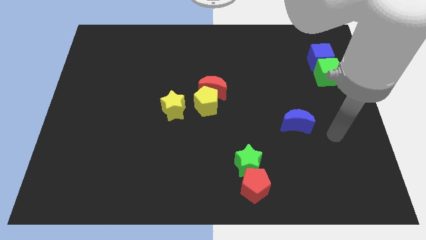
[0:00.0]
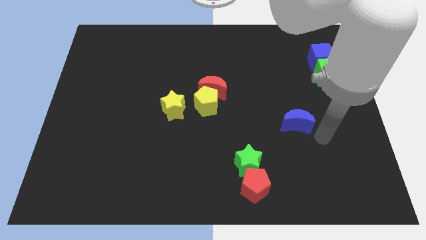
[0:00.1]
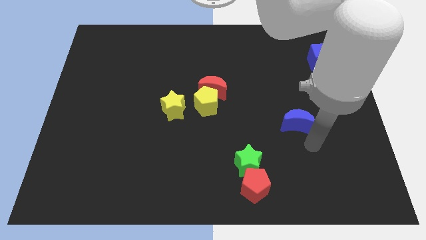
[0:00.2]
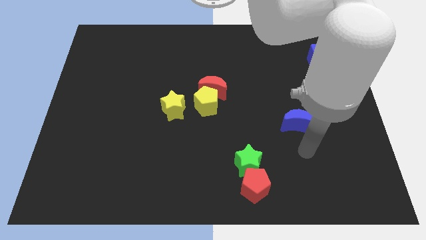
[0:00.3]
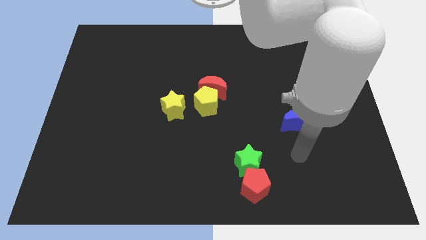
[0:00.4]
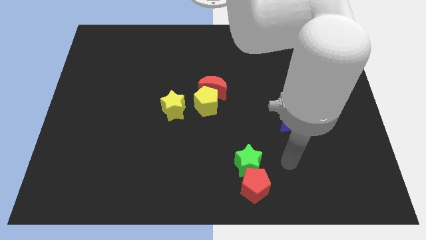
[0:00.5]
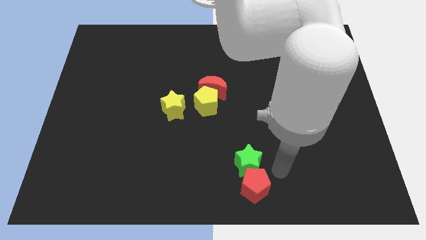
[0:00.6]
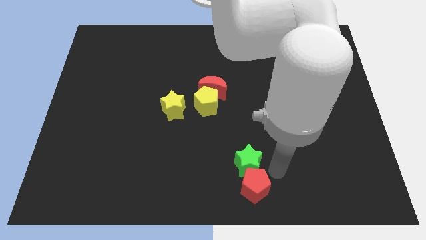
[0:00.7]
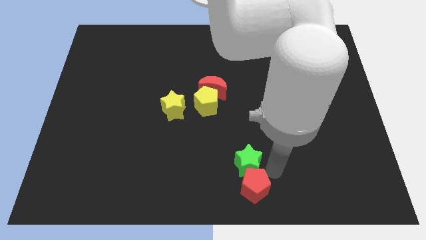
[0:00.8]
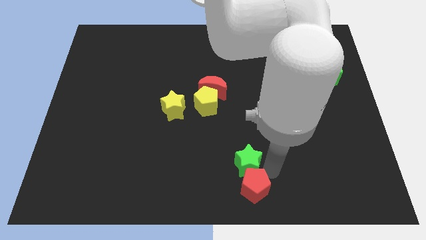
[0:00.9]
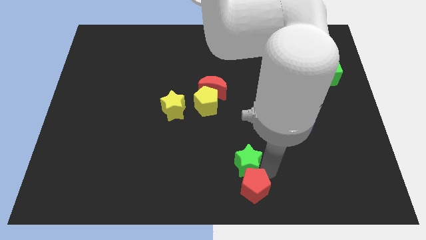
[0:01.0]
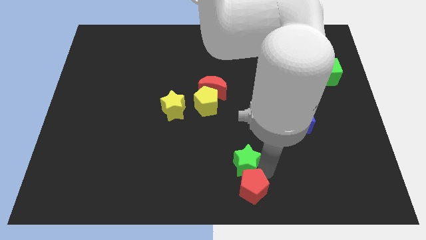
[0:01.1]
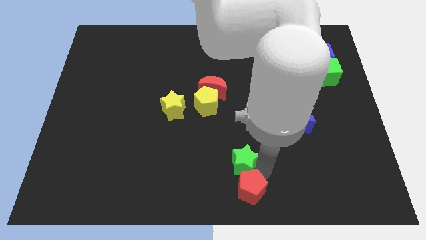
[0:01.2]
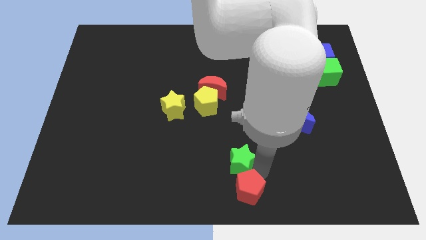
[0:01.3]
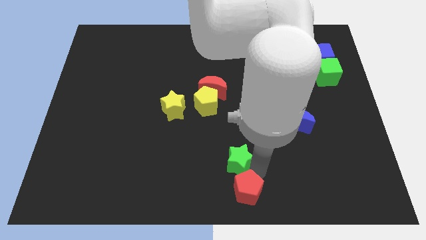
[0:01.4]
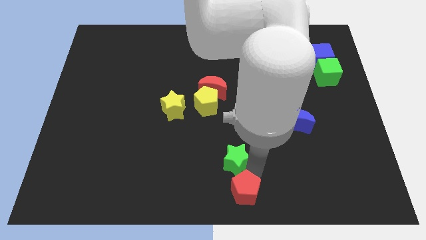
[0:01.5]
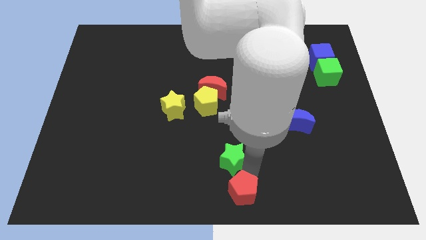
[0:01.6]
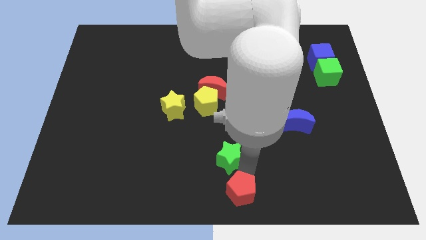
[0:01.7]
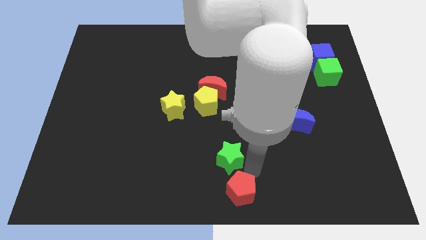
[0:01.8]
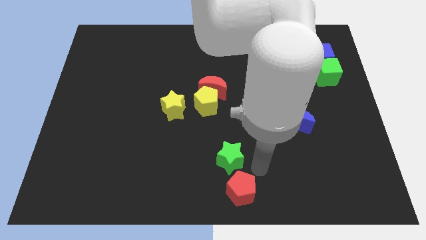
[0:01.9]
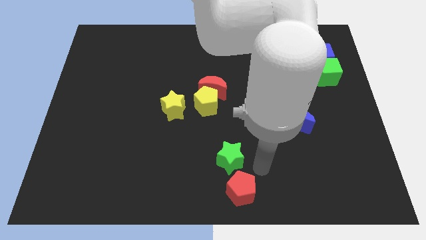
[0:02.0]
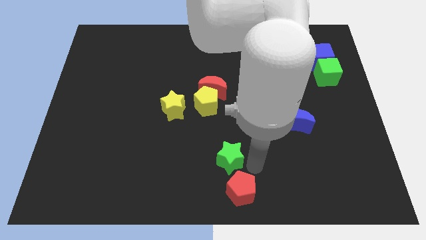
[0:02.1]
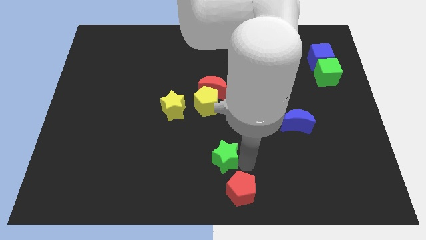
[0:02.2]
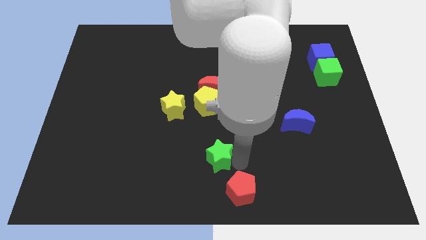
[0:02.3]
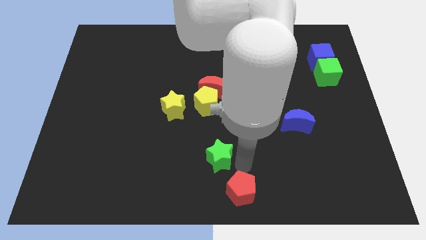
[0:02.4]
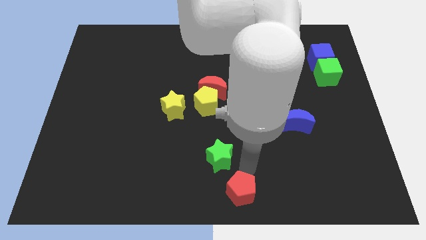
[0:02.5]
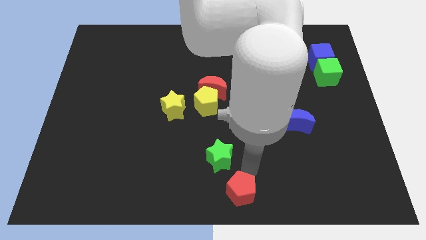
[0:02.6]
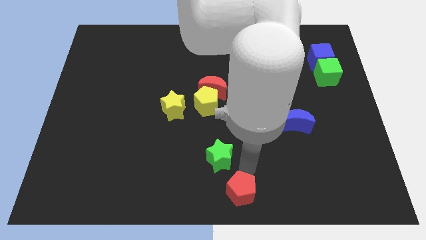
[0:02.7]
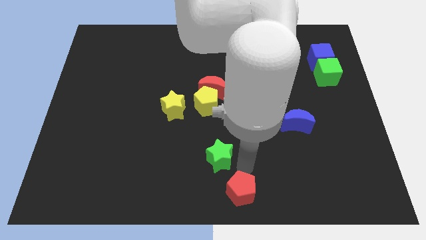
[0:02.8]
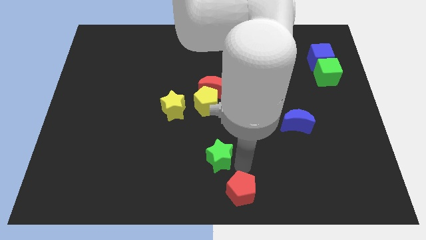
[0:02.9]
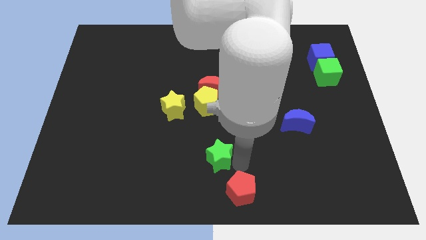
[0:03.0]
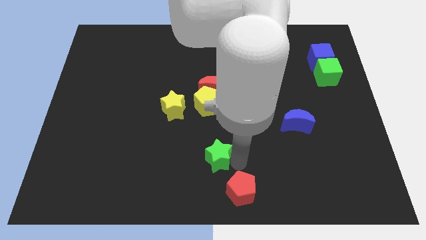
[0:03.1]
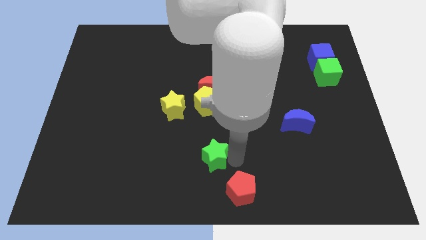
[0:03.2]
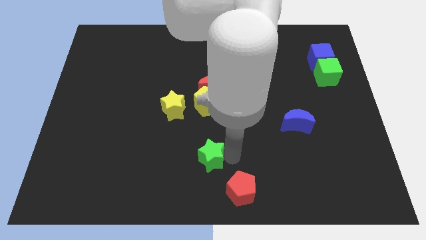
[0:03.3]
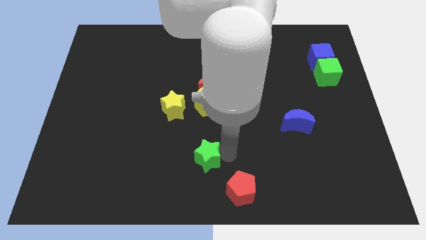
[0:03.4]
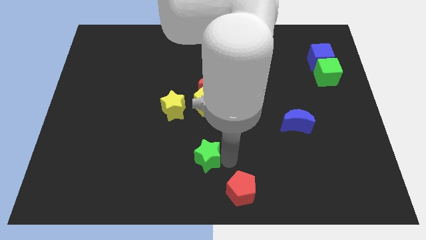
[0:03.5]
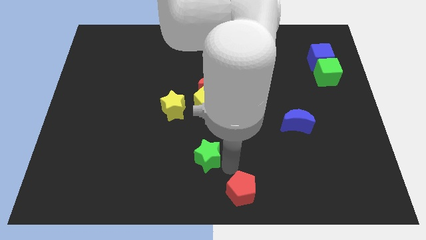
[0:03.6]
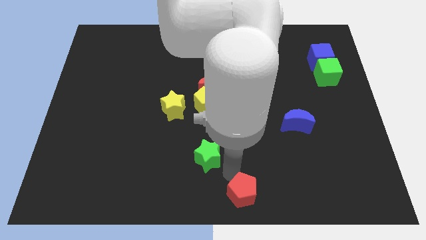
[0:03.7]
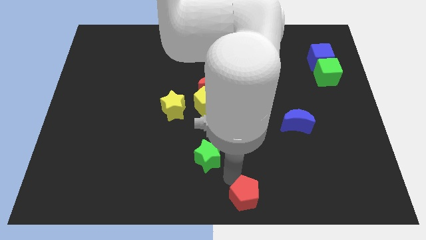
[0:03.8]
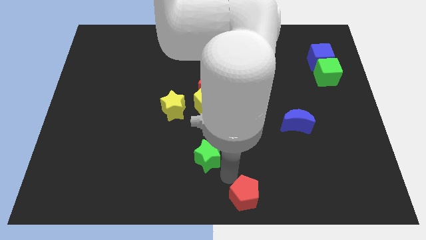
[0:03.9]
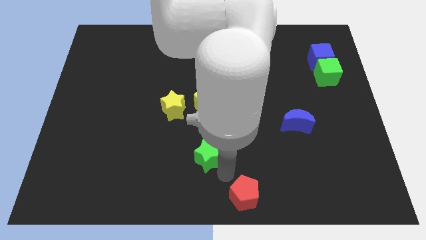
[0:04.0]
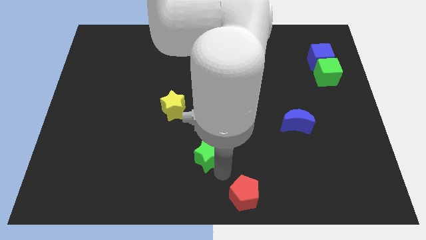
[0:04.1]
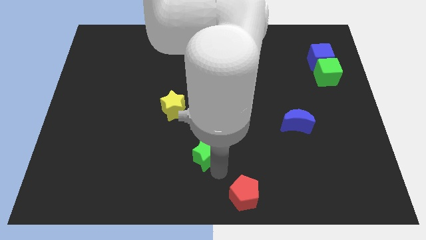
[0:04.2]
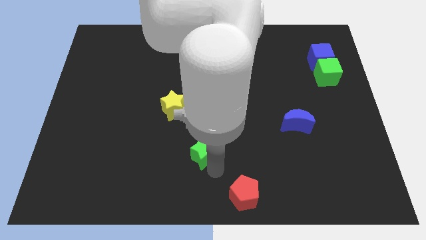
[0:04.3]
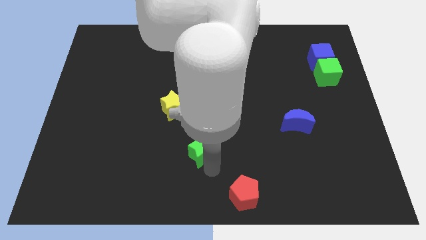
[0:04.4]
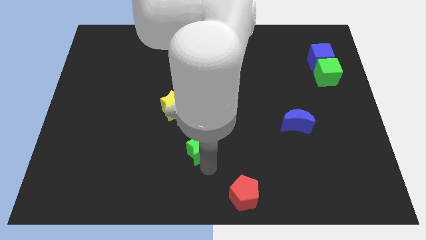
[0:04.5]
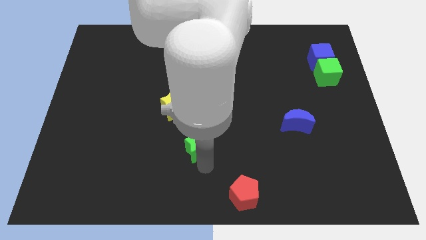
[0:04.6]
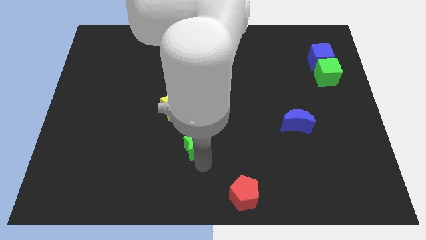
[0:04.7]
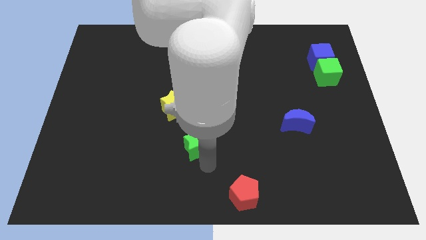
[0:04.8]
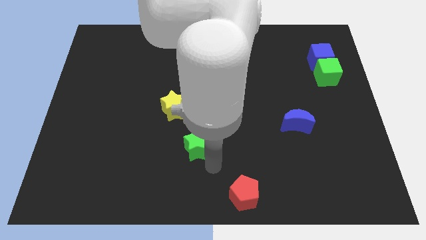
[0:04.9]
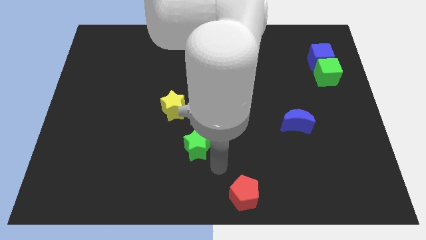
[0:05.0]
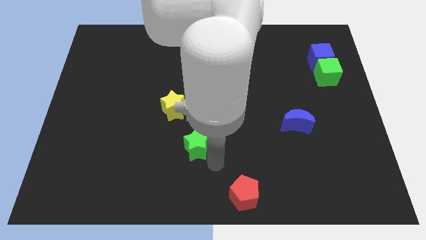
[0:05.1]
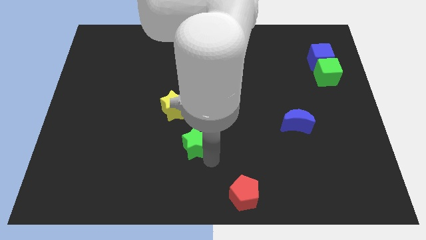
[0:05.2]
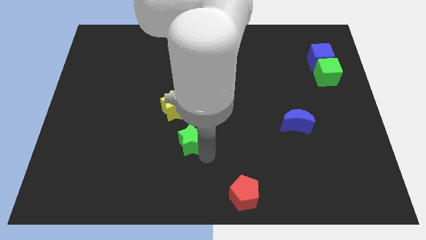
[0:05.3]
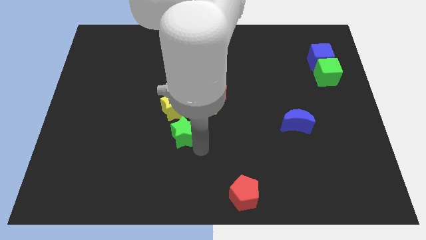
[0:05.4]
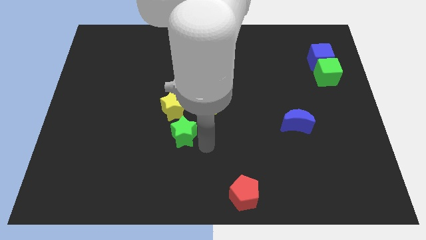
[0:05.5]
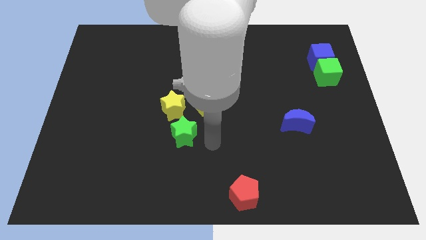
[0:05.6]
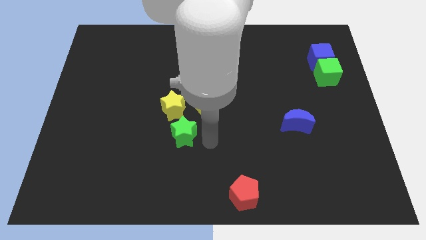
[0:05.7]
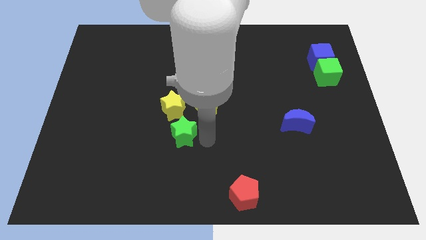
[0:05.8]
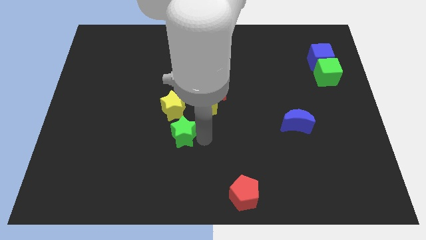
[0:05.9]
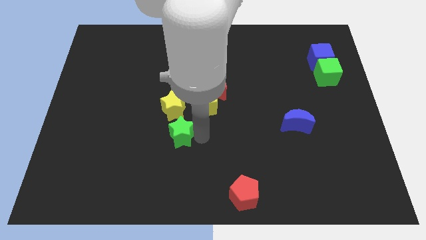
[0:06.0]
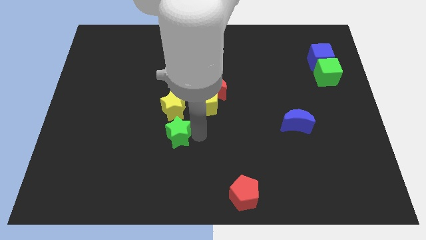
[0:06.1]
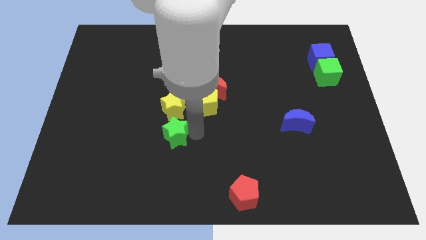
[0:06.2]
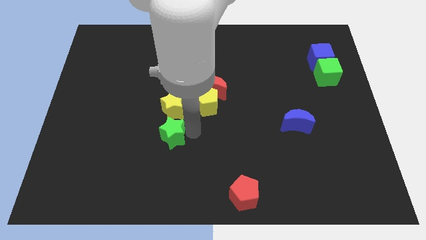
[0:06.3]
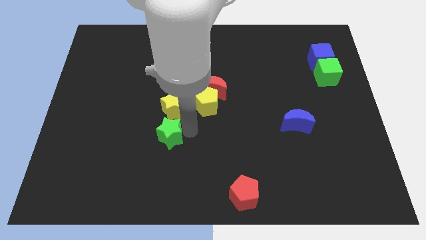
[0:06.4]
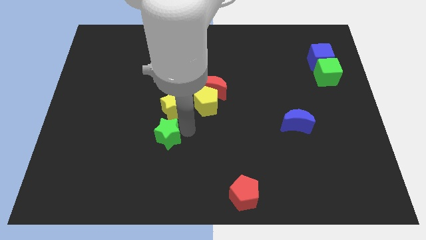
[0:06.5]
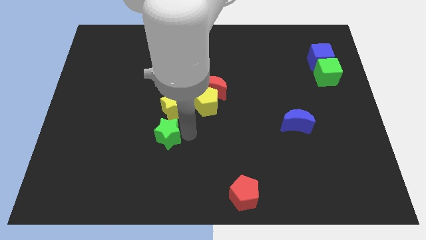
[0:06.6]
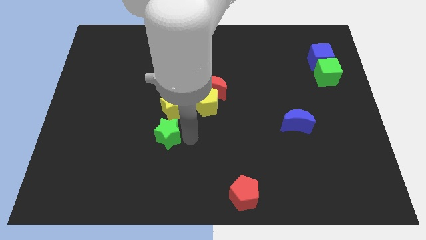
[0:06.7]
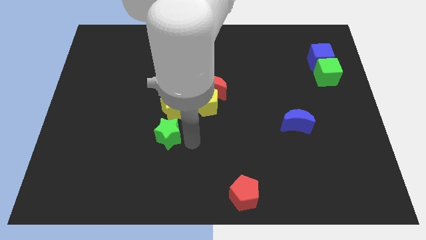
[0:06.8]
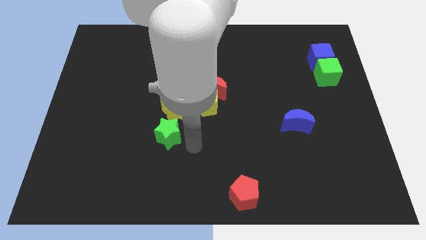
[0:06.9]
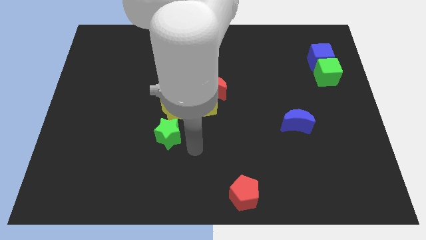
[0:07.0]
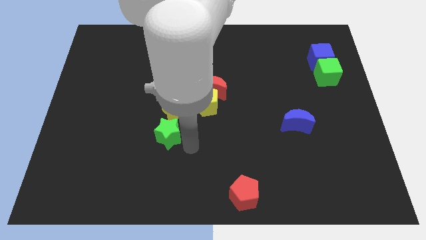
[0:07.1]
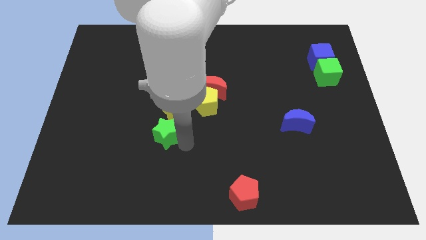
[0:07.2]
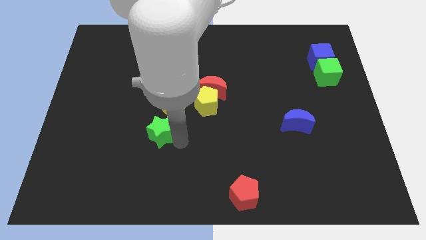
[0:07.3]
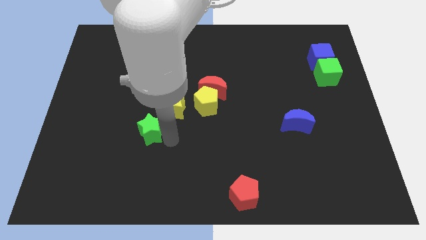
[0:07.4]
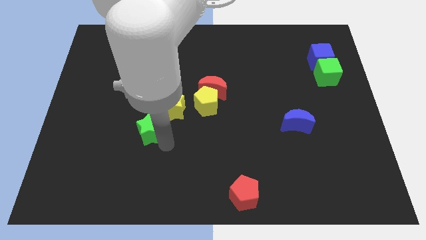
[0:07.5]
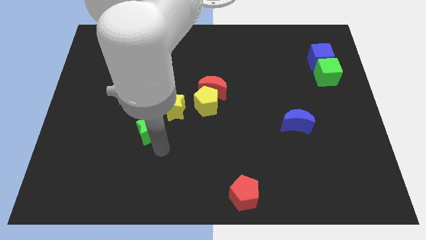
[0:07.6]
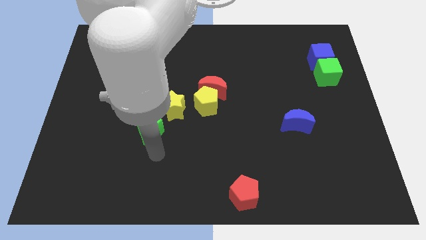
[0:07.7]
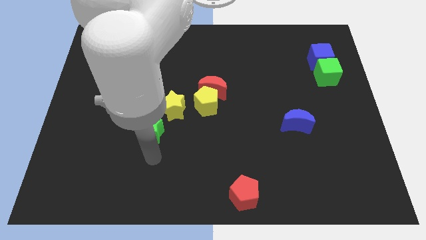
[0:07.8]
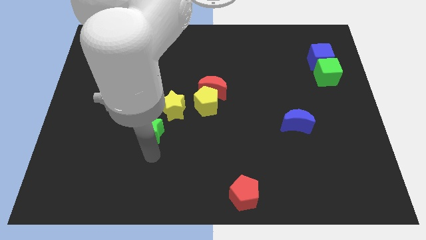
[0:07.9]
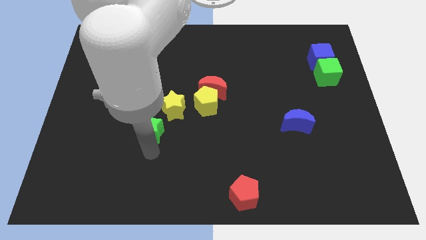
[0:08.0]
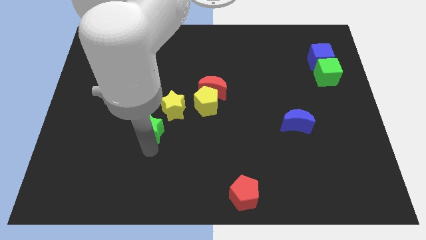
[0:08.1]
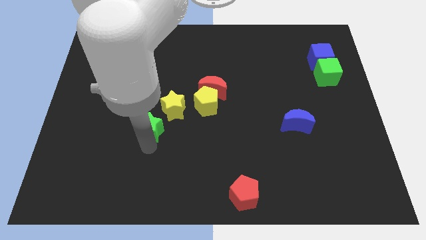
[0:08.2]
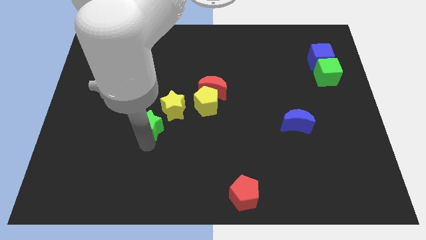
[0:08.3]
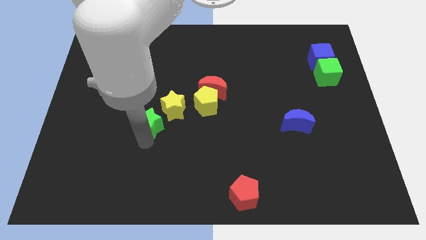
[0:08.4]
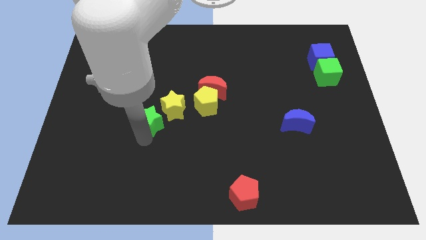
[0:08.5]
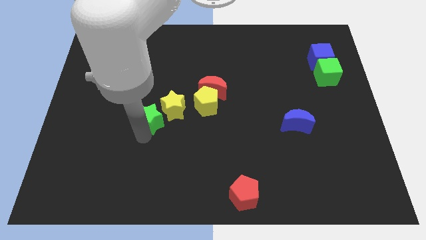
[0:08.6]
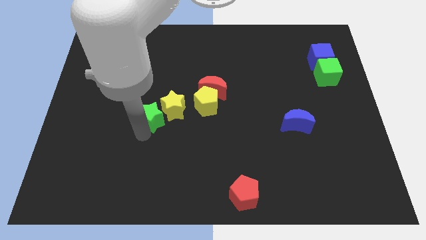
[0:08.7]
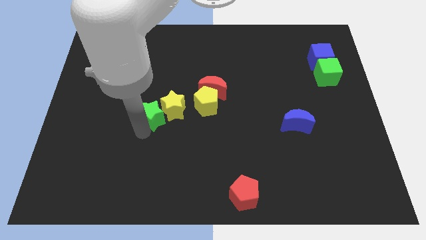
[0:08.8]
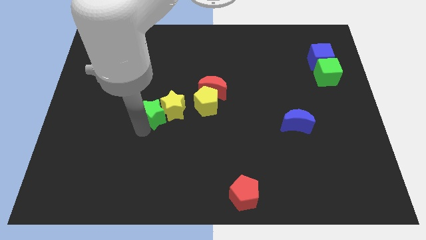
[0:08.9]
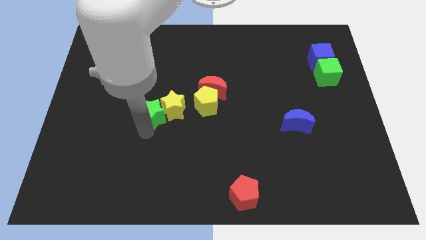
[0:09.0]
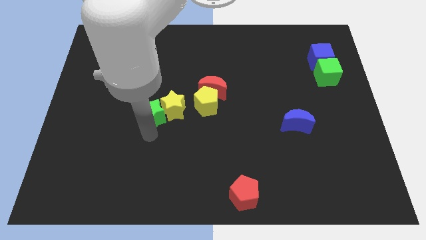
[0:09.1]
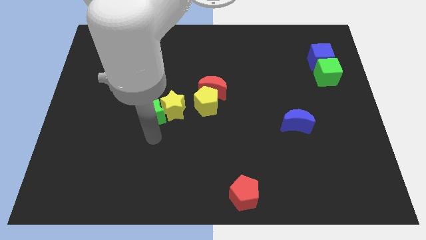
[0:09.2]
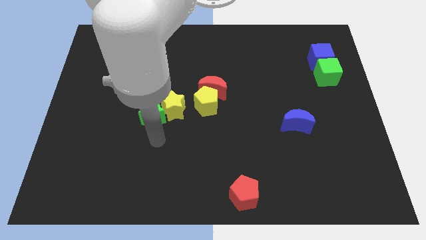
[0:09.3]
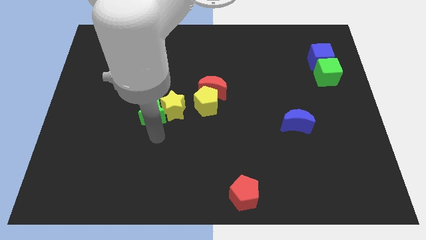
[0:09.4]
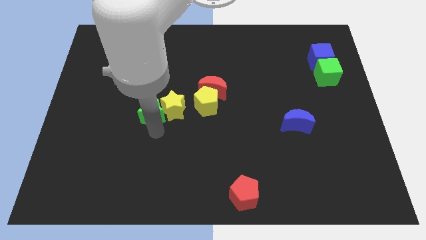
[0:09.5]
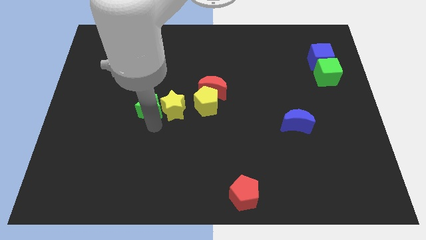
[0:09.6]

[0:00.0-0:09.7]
put the green star to the top left of the yellow star
